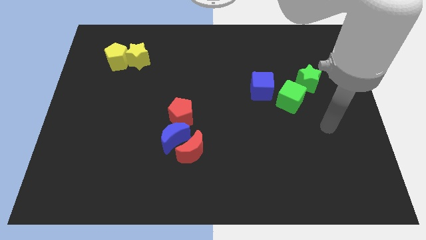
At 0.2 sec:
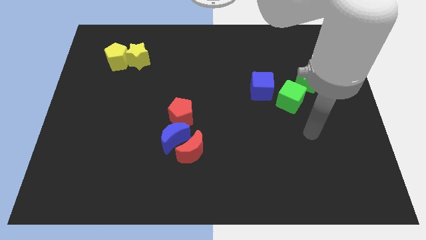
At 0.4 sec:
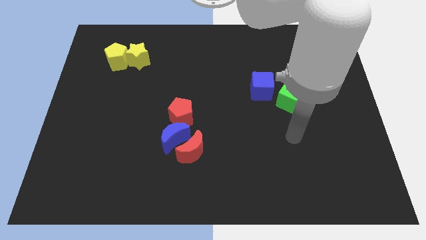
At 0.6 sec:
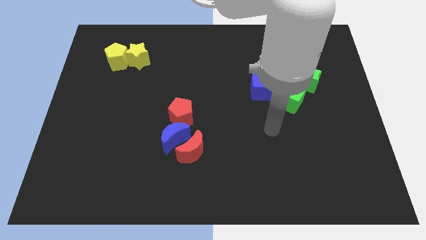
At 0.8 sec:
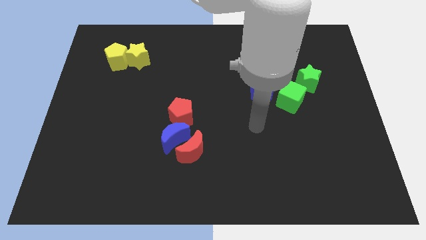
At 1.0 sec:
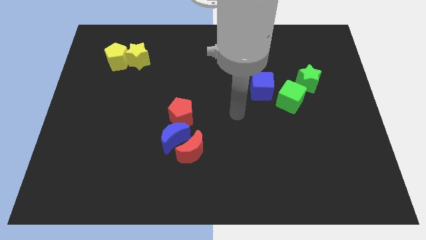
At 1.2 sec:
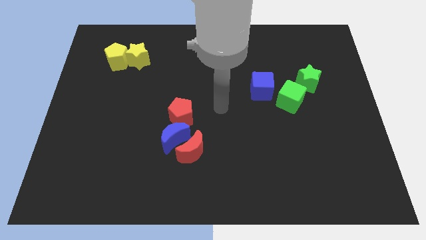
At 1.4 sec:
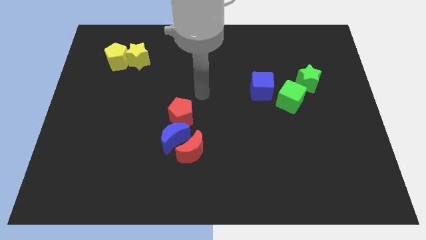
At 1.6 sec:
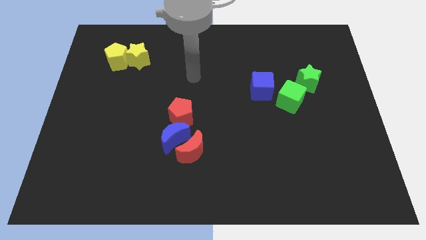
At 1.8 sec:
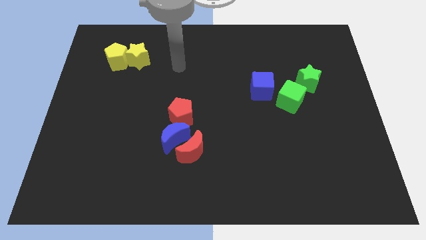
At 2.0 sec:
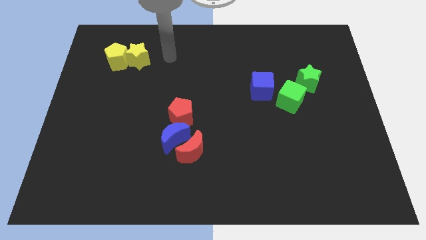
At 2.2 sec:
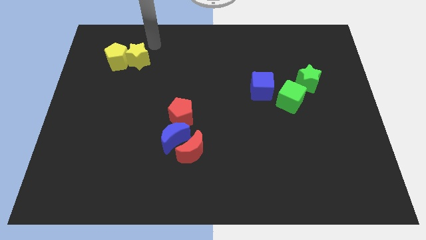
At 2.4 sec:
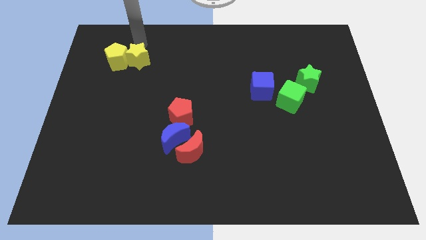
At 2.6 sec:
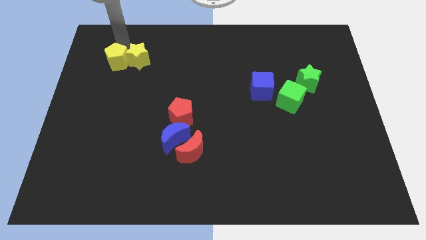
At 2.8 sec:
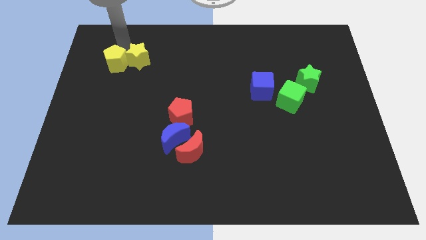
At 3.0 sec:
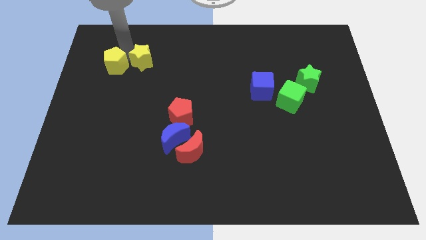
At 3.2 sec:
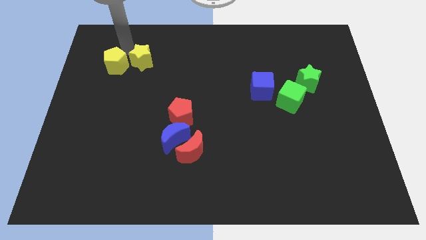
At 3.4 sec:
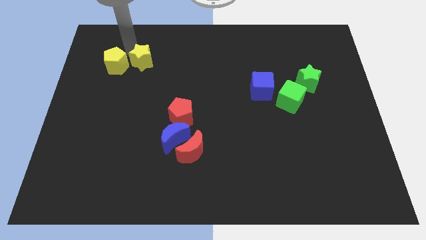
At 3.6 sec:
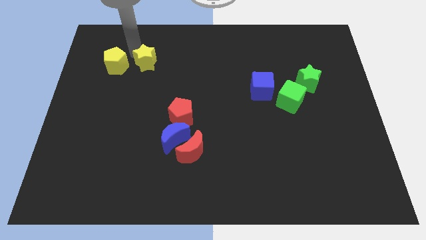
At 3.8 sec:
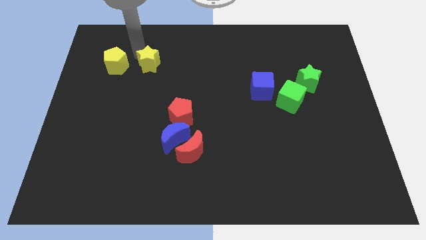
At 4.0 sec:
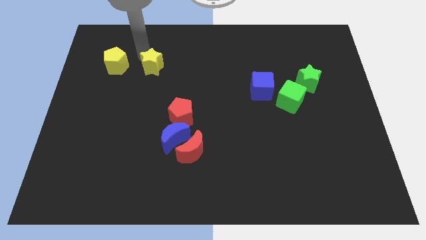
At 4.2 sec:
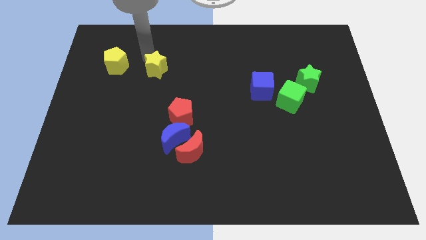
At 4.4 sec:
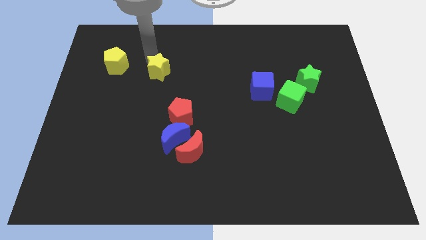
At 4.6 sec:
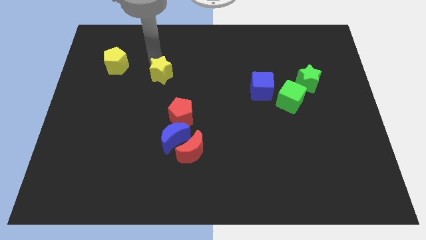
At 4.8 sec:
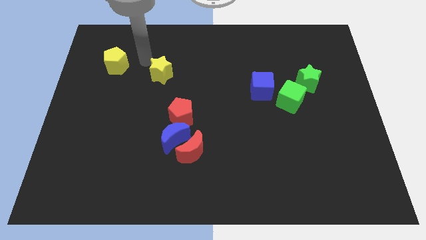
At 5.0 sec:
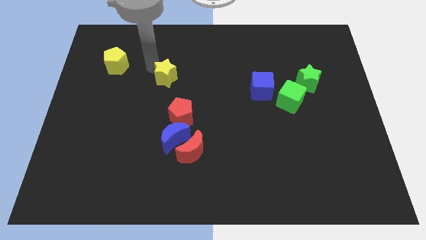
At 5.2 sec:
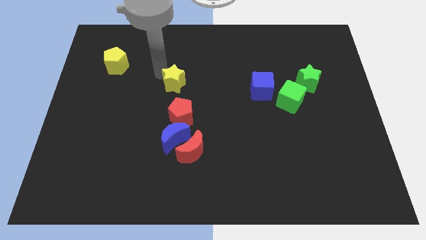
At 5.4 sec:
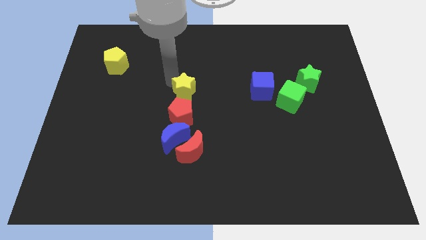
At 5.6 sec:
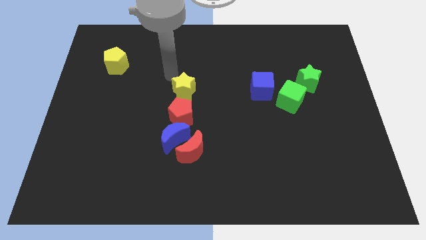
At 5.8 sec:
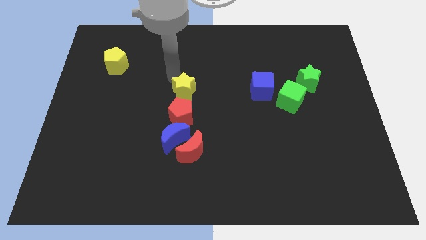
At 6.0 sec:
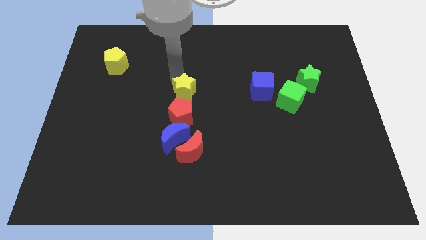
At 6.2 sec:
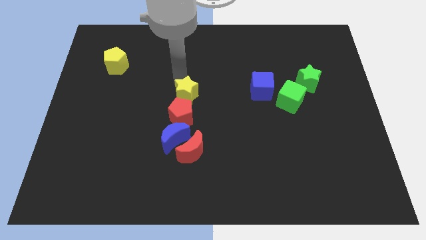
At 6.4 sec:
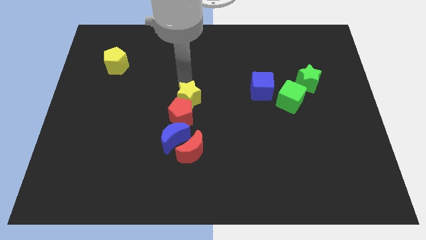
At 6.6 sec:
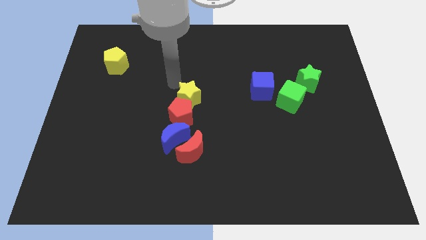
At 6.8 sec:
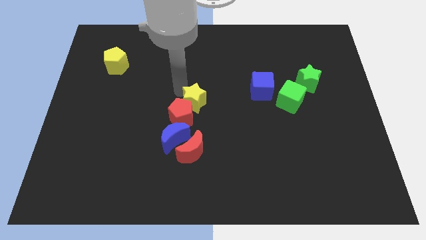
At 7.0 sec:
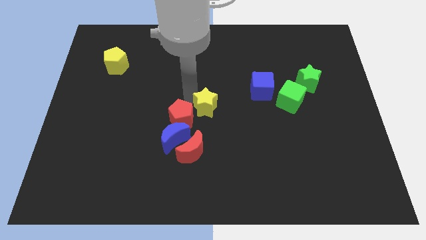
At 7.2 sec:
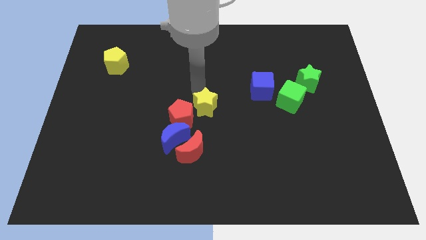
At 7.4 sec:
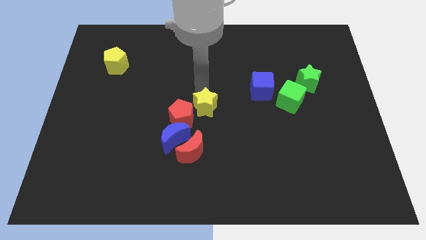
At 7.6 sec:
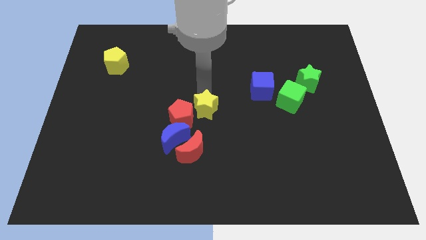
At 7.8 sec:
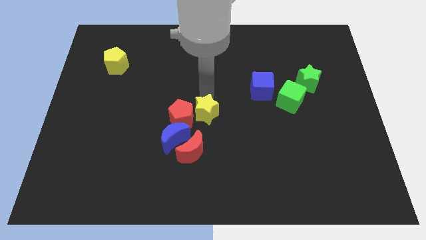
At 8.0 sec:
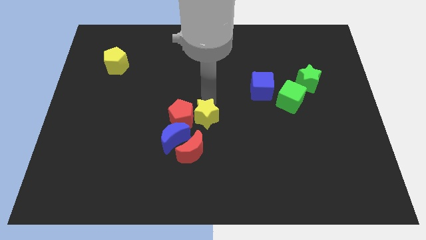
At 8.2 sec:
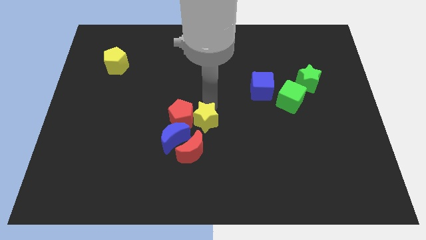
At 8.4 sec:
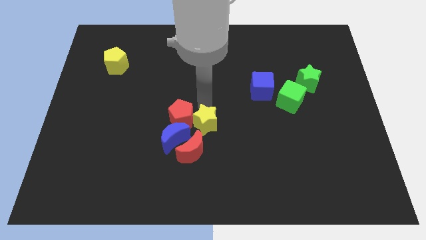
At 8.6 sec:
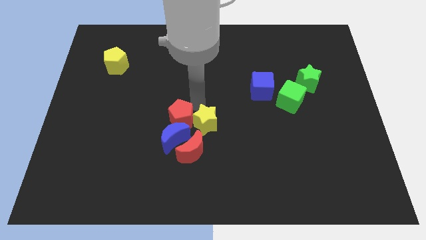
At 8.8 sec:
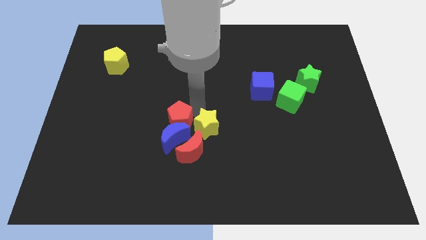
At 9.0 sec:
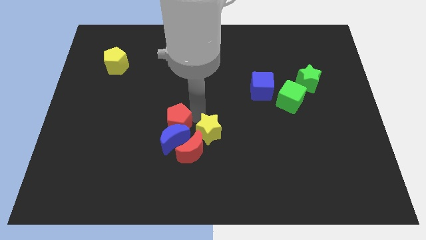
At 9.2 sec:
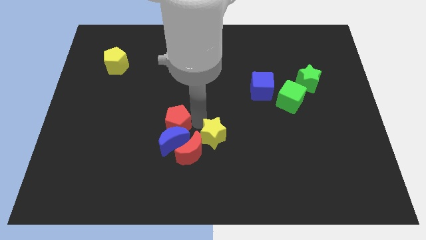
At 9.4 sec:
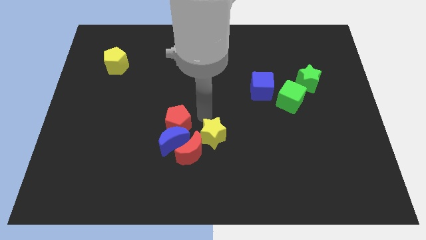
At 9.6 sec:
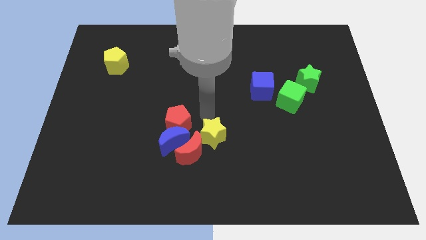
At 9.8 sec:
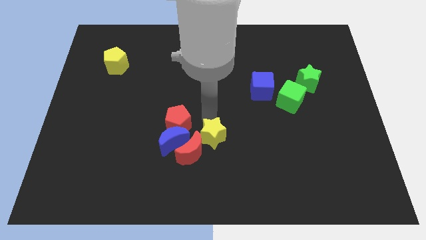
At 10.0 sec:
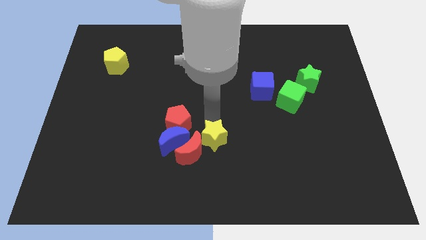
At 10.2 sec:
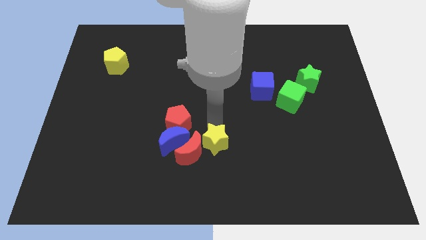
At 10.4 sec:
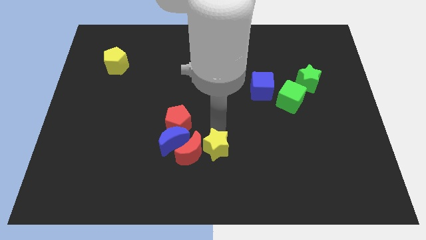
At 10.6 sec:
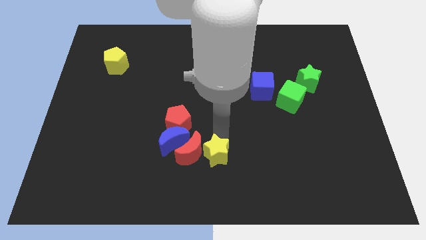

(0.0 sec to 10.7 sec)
slide the yellow star to the bottom

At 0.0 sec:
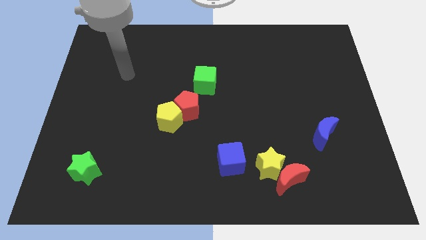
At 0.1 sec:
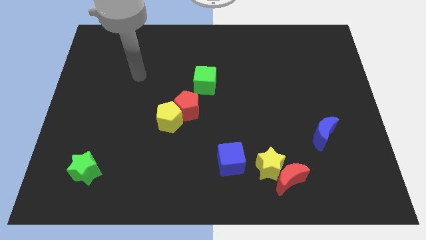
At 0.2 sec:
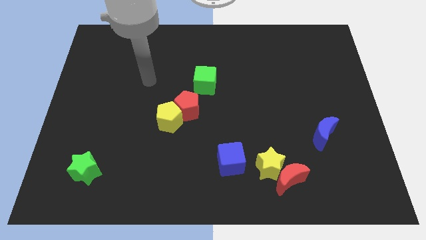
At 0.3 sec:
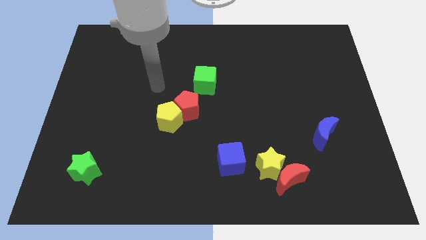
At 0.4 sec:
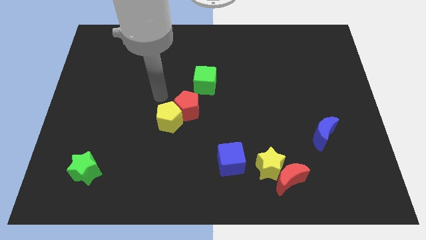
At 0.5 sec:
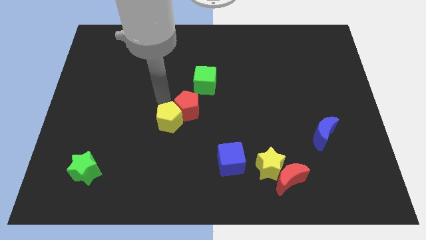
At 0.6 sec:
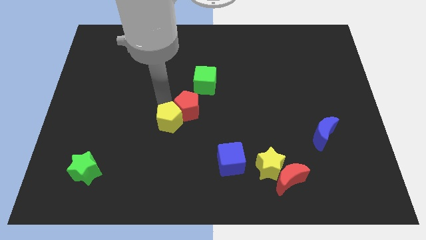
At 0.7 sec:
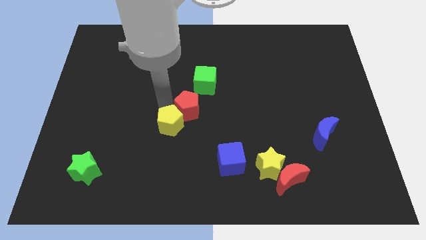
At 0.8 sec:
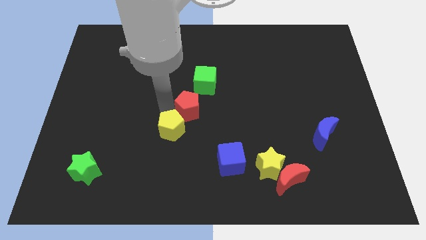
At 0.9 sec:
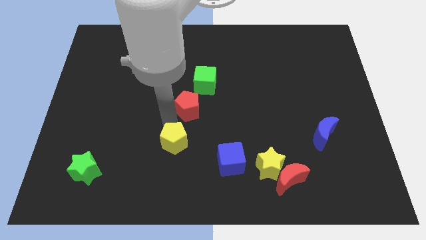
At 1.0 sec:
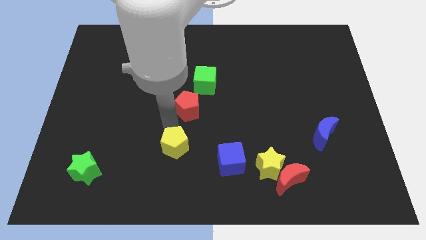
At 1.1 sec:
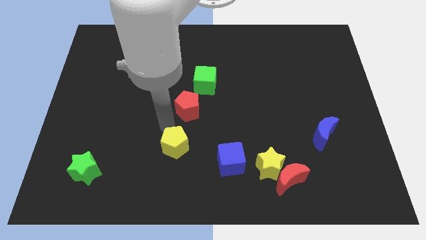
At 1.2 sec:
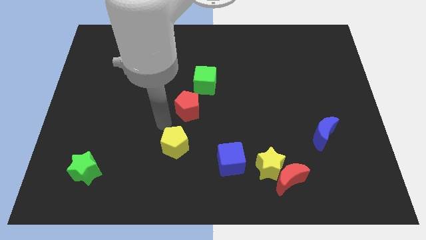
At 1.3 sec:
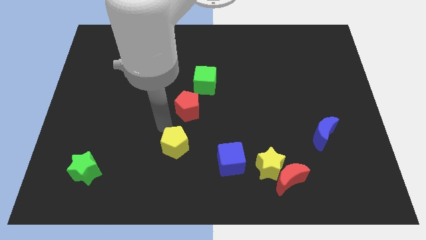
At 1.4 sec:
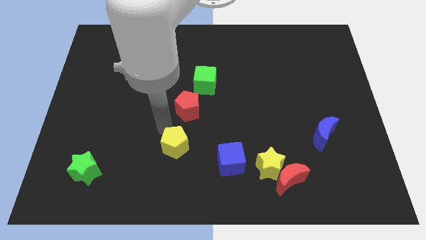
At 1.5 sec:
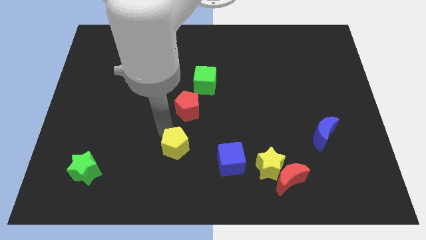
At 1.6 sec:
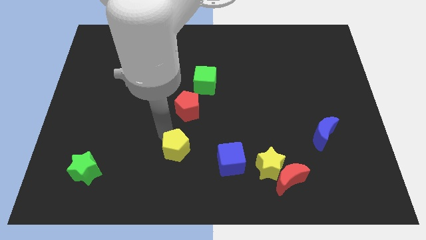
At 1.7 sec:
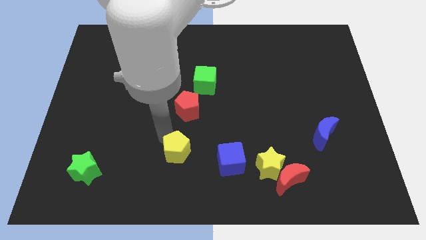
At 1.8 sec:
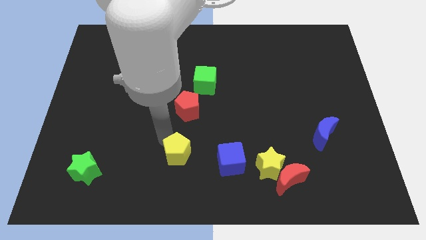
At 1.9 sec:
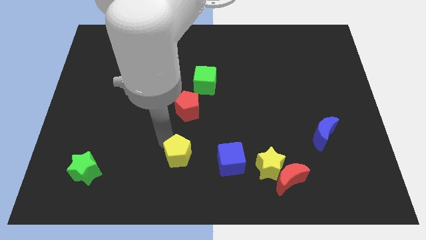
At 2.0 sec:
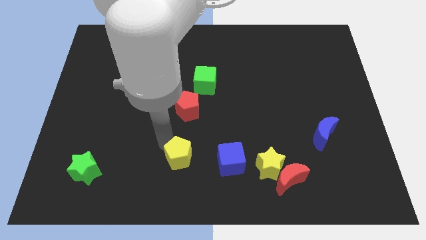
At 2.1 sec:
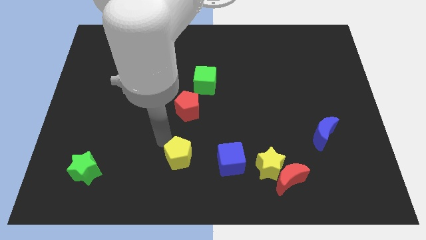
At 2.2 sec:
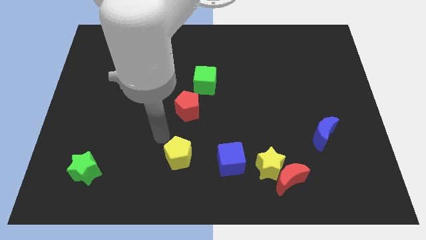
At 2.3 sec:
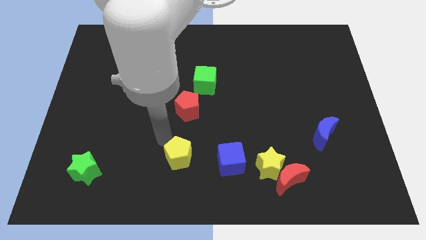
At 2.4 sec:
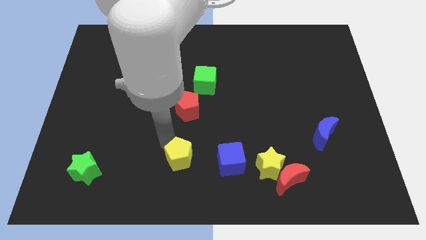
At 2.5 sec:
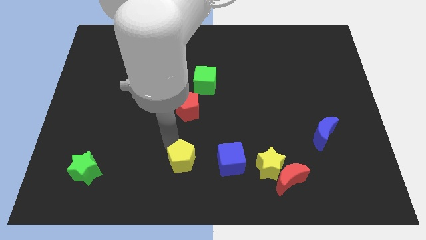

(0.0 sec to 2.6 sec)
put the yellow pentagon to the bottom side
